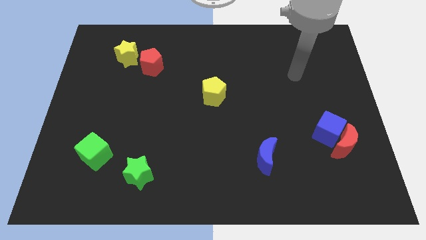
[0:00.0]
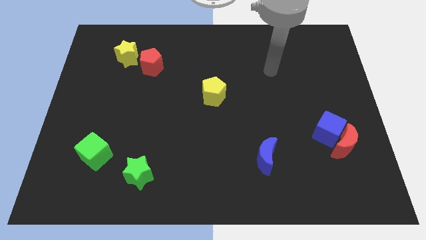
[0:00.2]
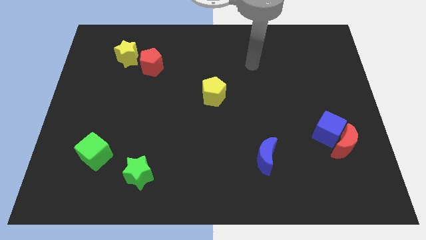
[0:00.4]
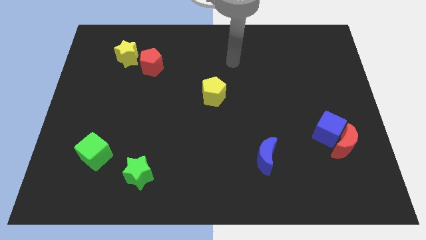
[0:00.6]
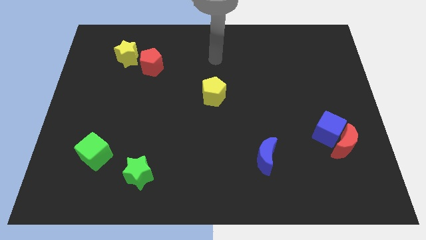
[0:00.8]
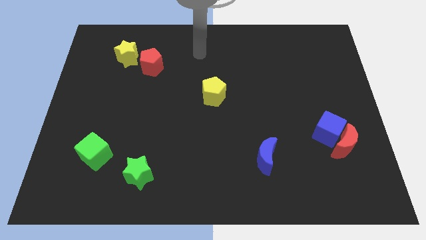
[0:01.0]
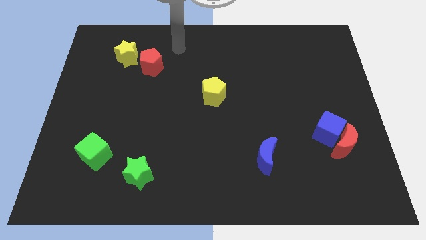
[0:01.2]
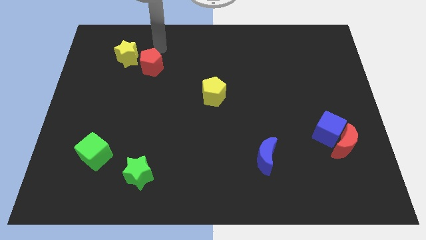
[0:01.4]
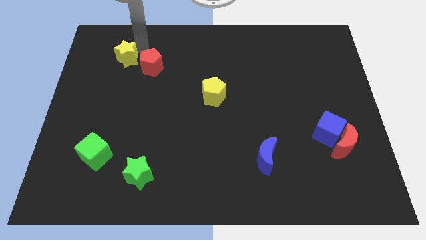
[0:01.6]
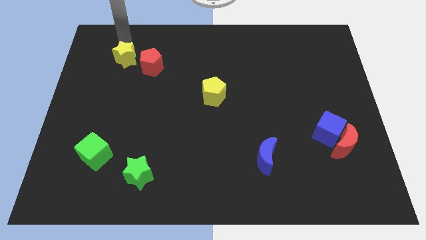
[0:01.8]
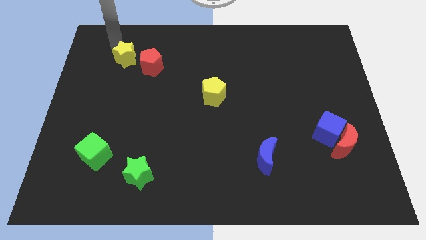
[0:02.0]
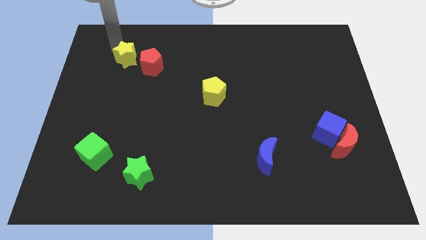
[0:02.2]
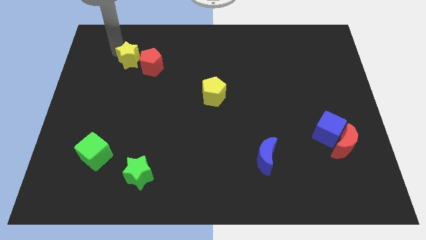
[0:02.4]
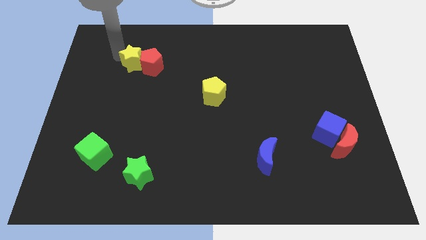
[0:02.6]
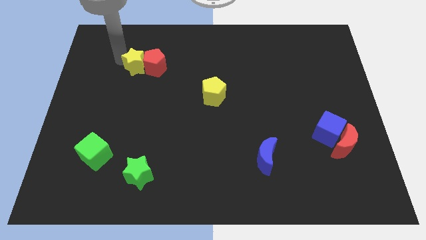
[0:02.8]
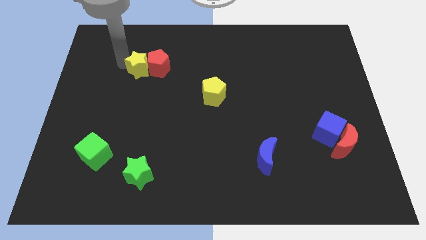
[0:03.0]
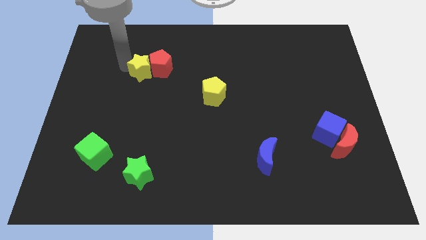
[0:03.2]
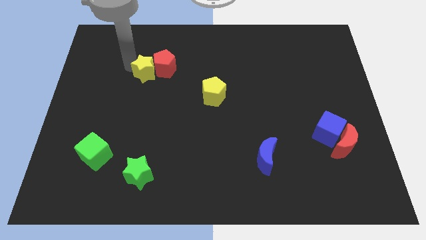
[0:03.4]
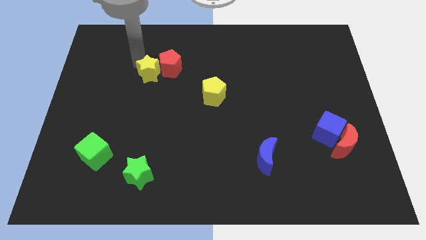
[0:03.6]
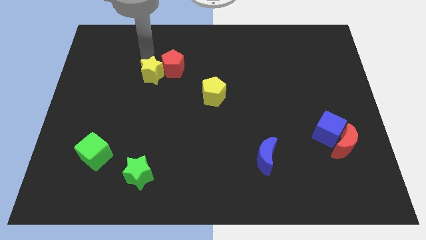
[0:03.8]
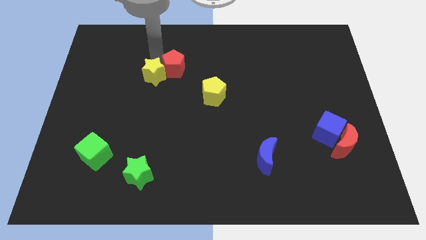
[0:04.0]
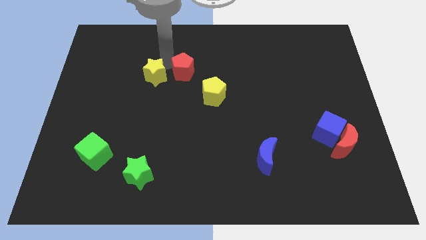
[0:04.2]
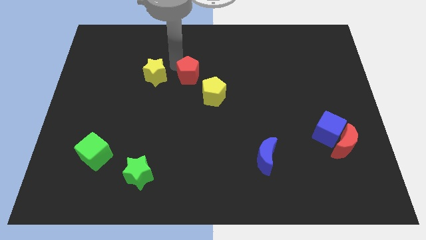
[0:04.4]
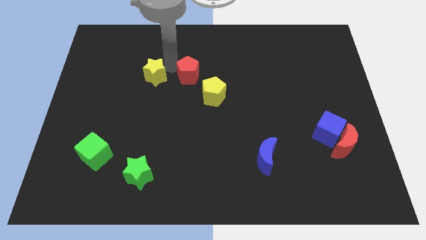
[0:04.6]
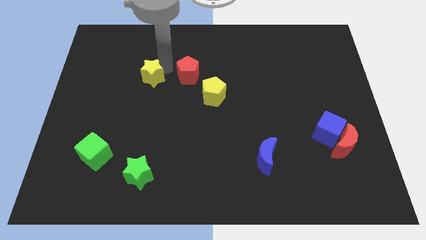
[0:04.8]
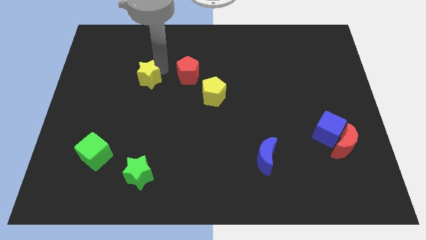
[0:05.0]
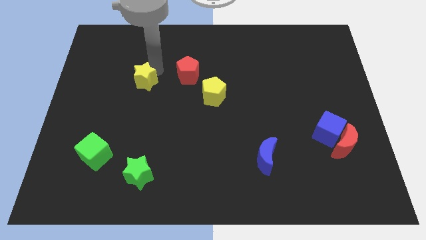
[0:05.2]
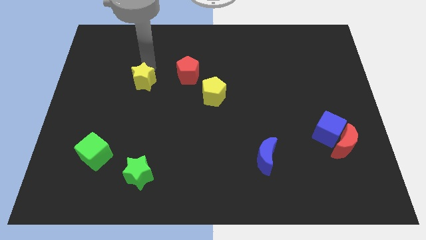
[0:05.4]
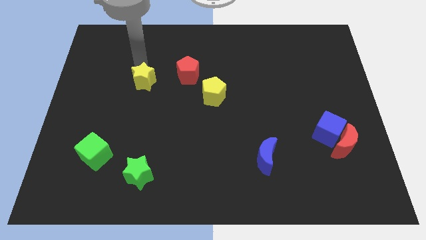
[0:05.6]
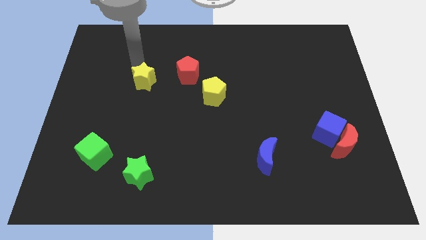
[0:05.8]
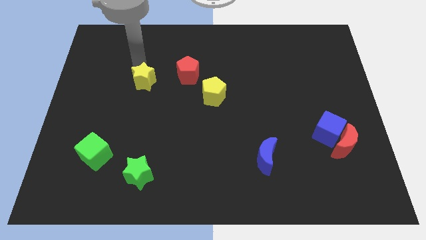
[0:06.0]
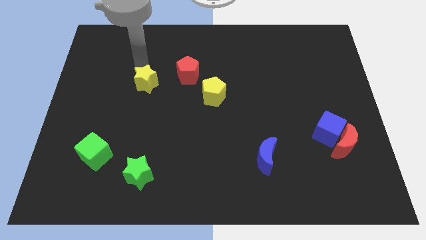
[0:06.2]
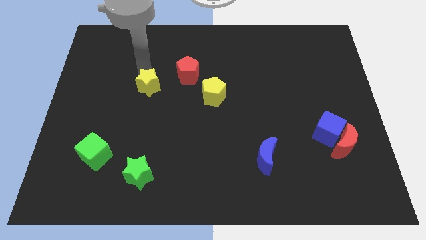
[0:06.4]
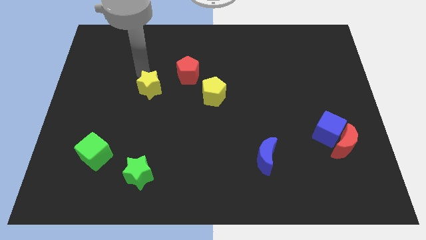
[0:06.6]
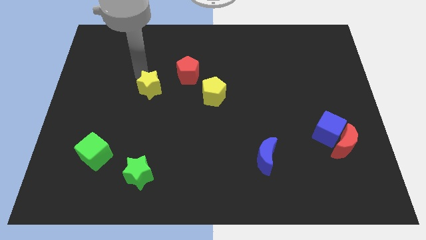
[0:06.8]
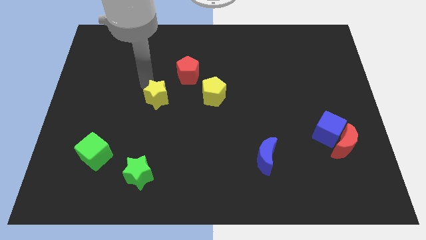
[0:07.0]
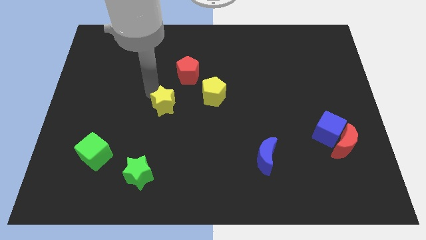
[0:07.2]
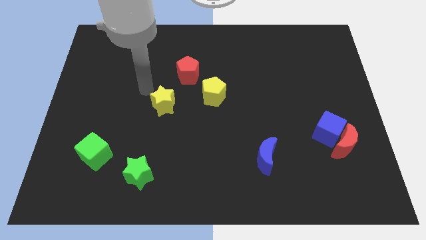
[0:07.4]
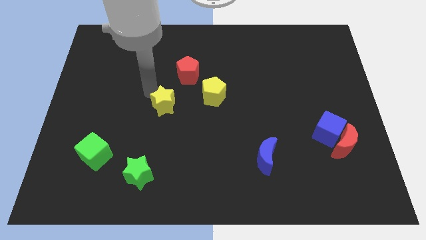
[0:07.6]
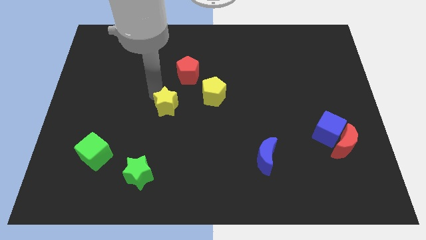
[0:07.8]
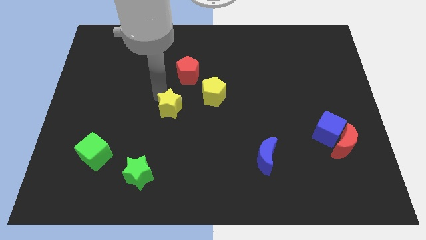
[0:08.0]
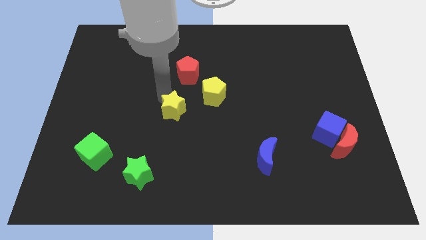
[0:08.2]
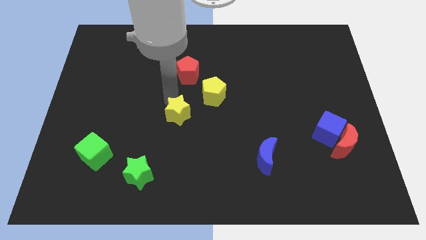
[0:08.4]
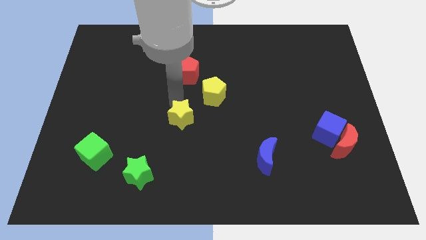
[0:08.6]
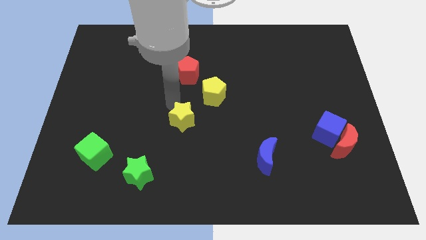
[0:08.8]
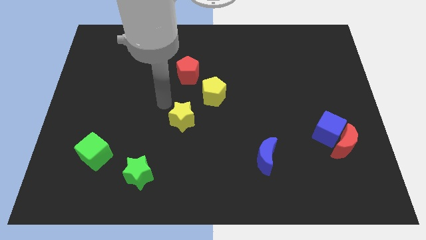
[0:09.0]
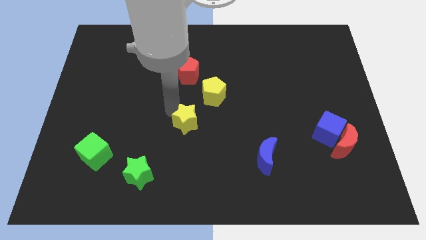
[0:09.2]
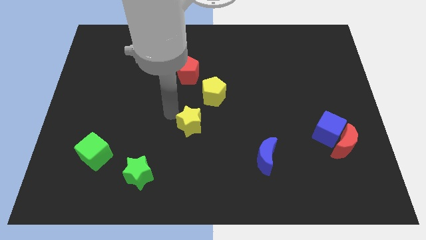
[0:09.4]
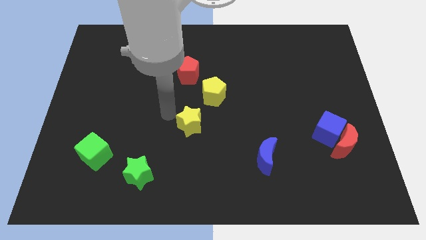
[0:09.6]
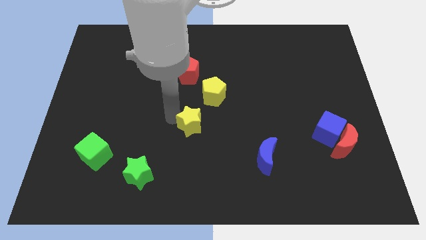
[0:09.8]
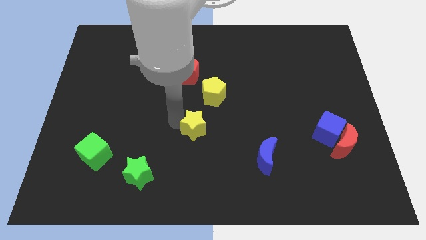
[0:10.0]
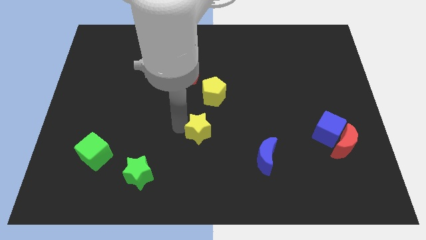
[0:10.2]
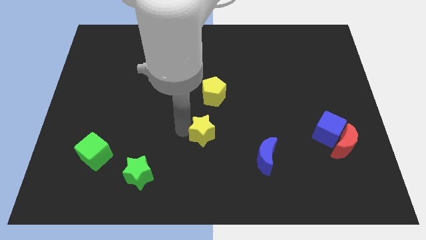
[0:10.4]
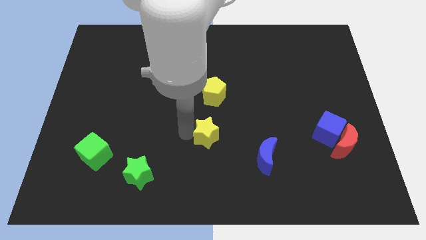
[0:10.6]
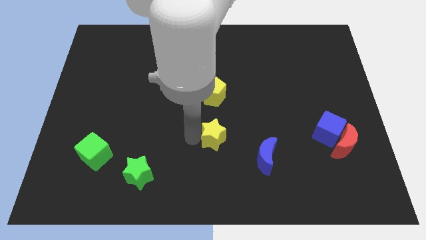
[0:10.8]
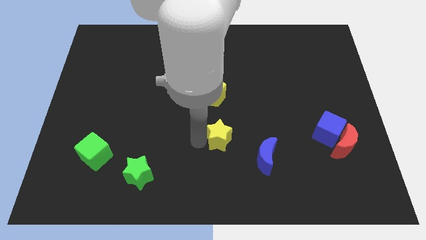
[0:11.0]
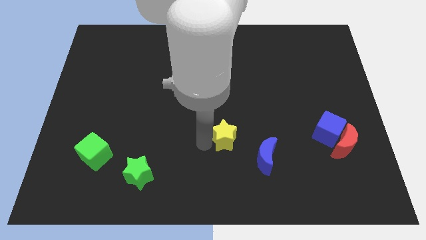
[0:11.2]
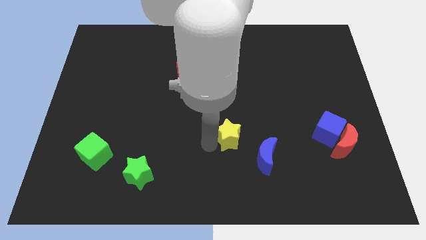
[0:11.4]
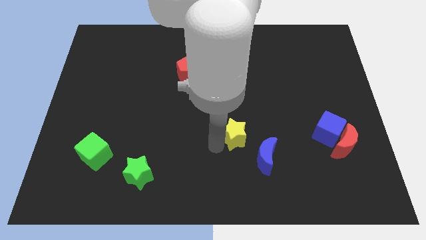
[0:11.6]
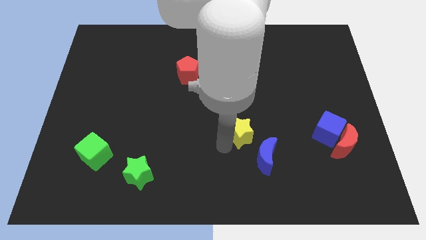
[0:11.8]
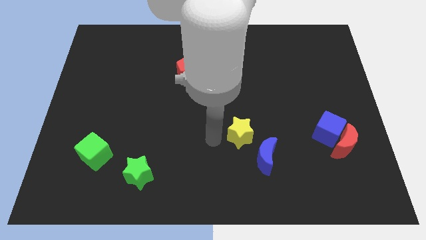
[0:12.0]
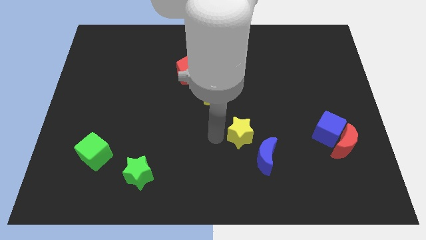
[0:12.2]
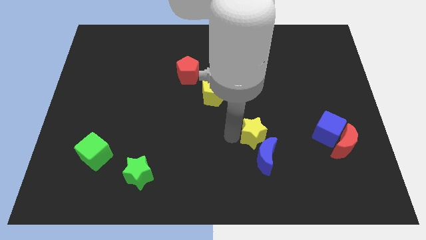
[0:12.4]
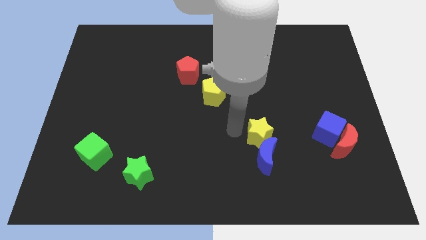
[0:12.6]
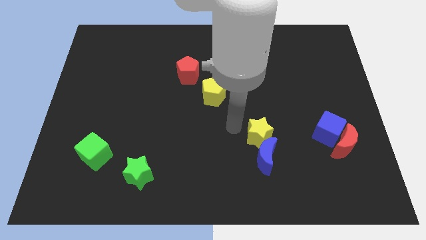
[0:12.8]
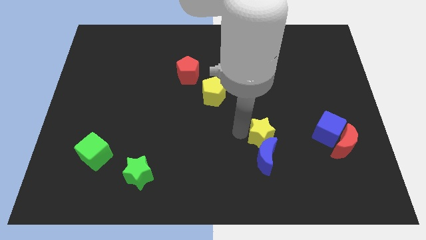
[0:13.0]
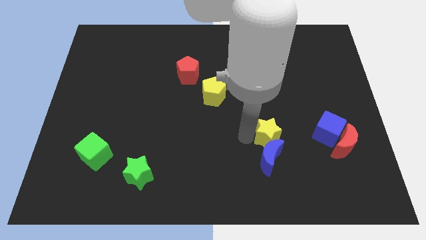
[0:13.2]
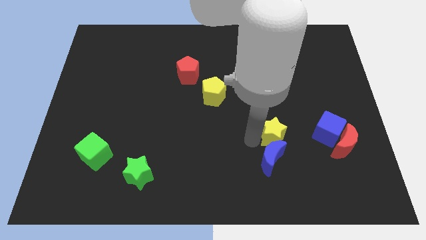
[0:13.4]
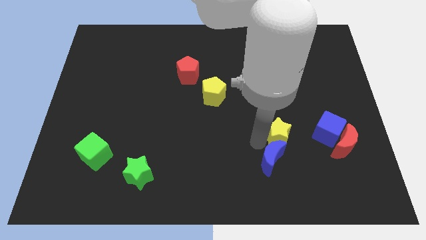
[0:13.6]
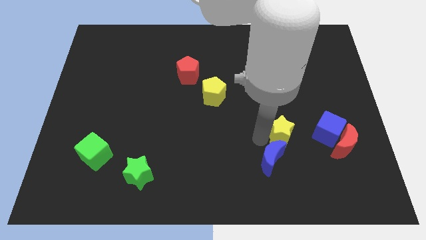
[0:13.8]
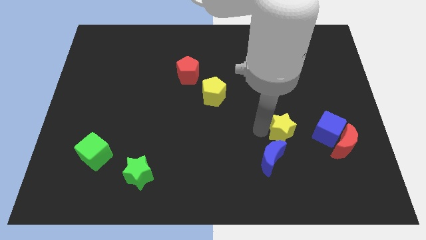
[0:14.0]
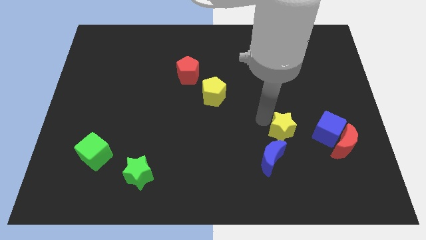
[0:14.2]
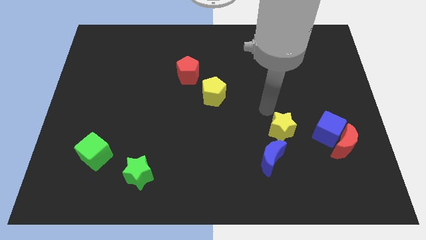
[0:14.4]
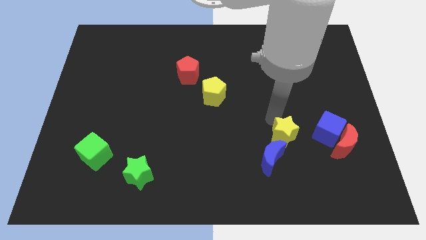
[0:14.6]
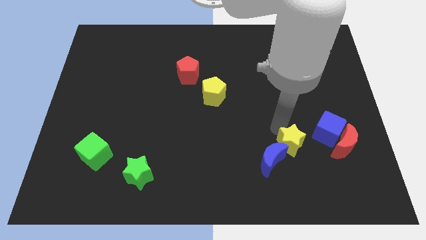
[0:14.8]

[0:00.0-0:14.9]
slide the yellow star diagonally down and to the left of the blue cube
